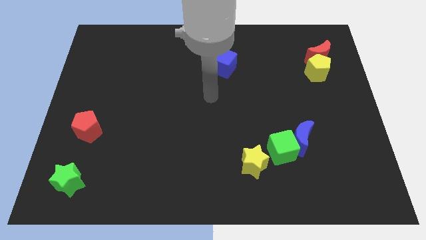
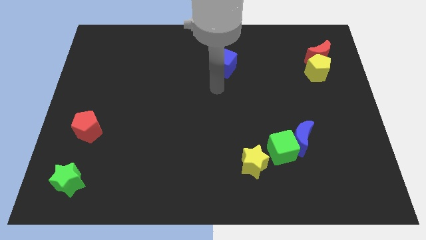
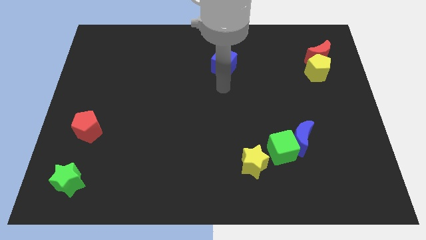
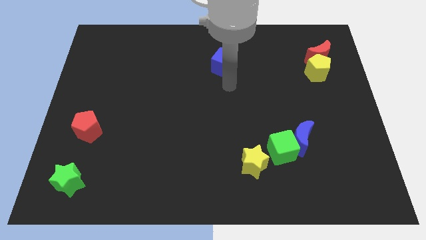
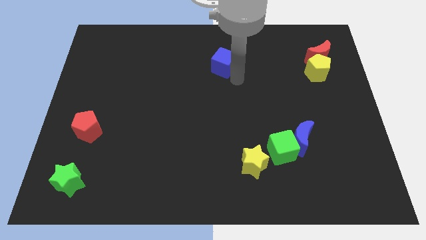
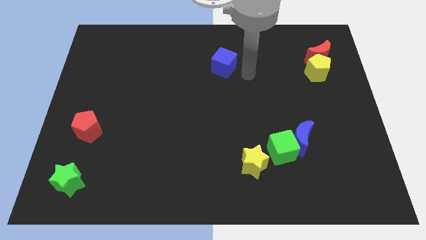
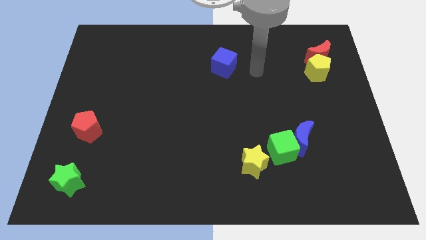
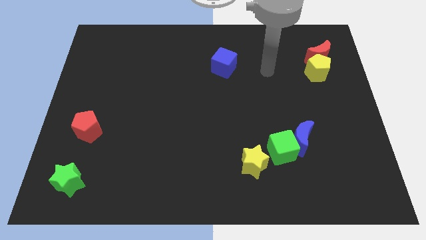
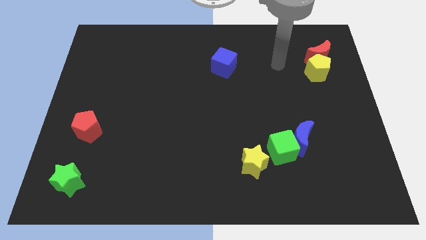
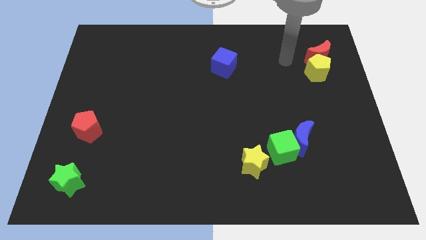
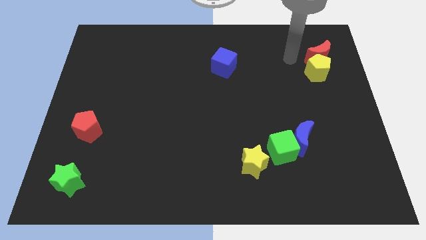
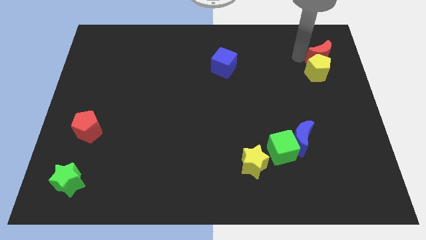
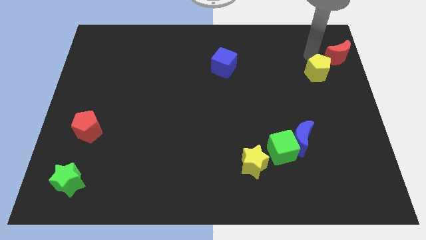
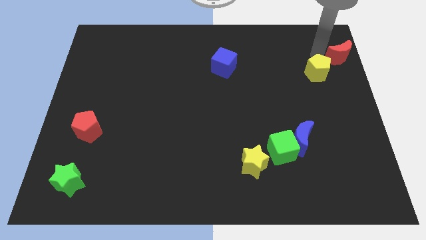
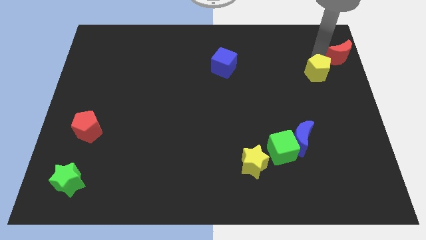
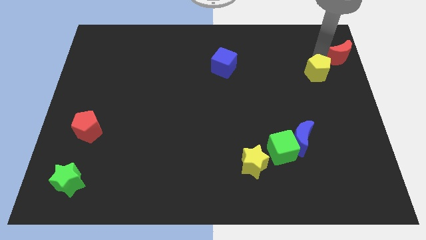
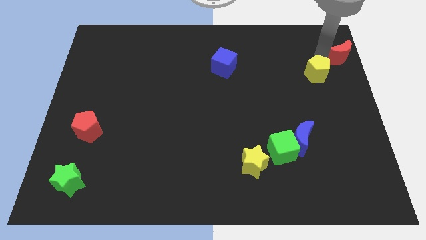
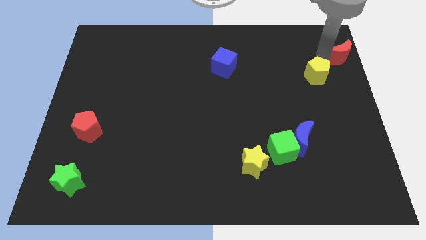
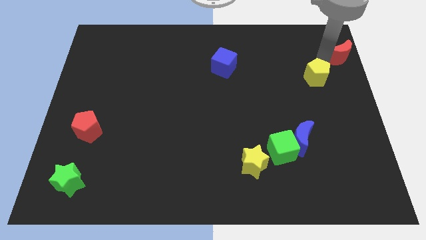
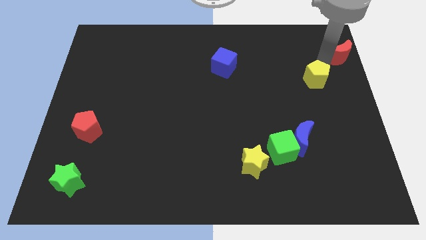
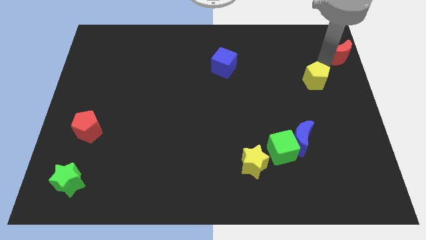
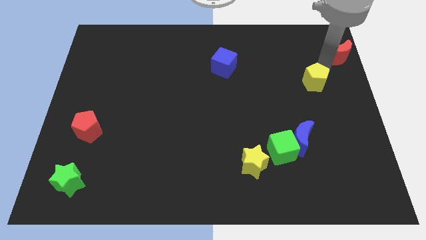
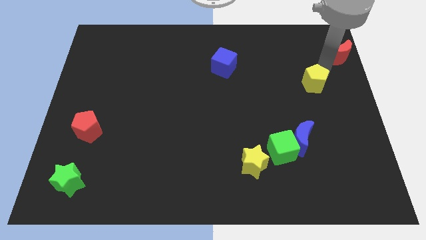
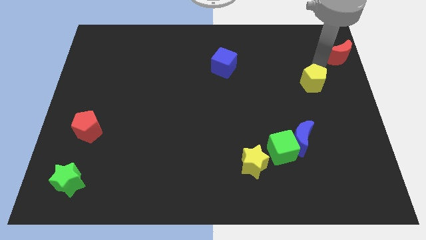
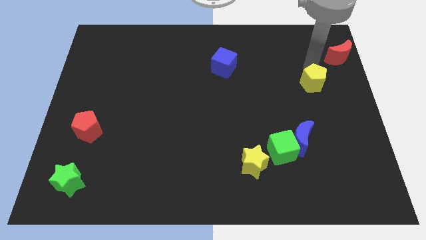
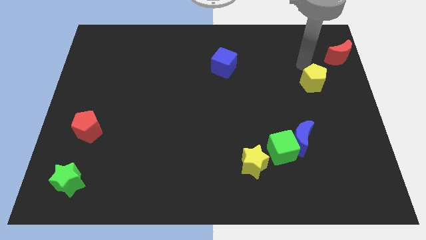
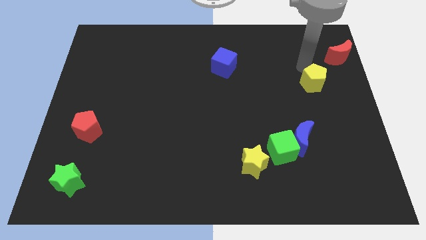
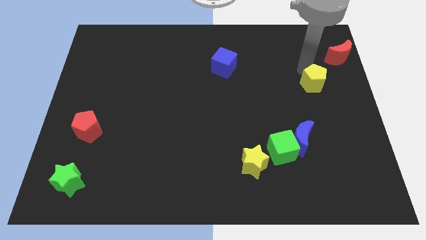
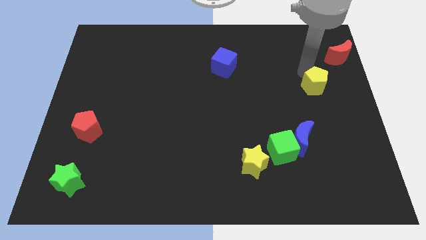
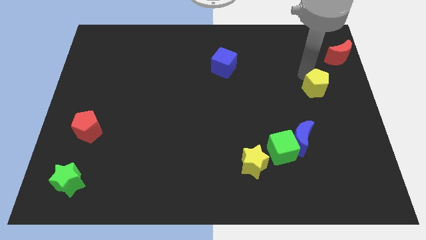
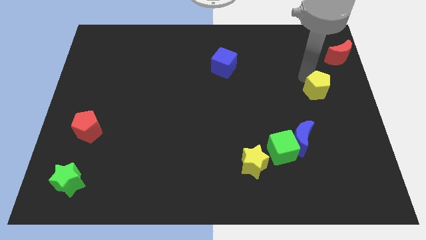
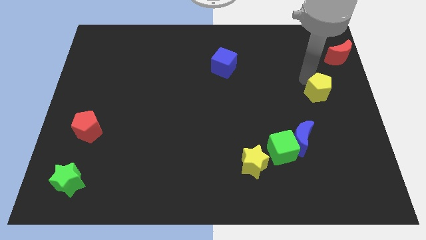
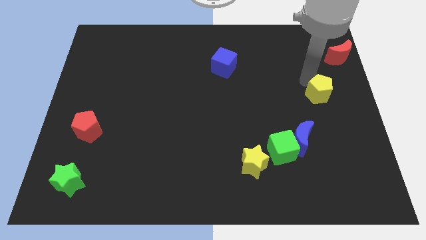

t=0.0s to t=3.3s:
slightly move the yellow pentagon down

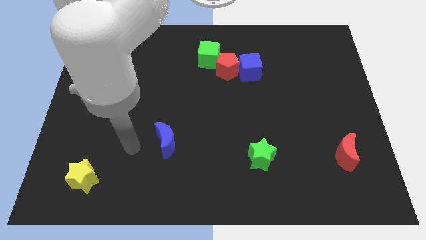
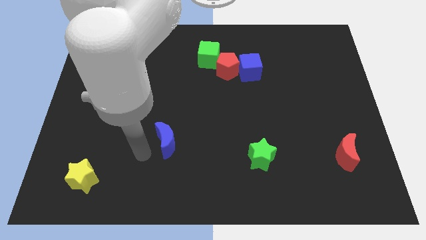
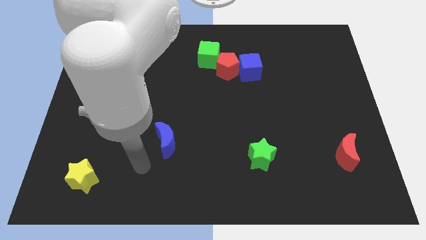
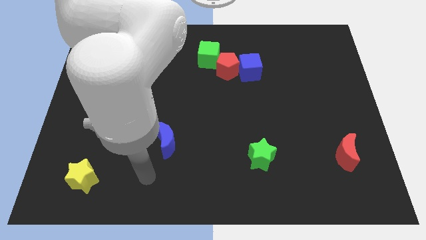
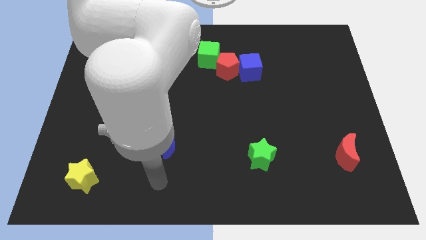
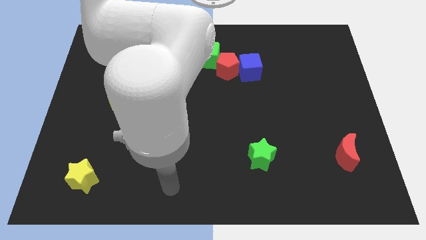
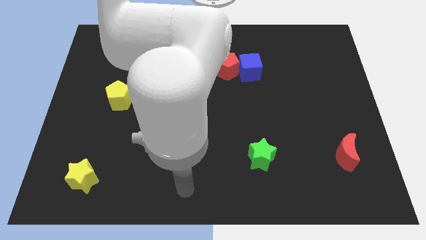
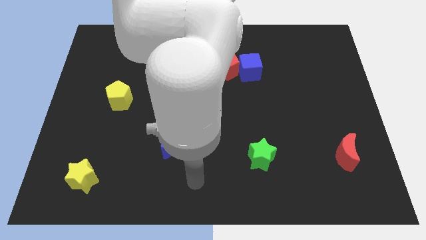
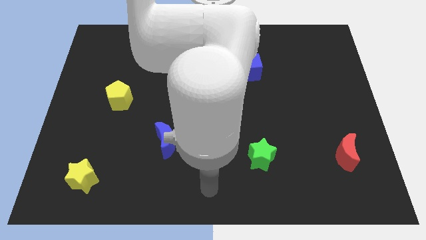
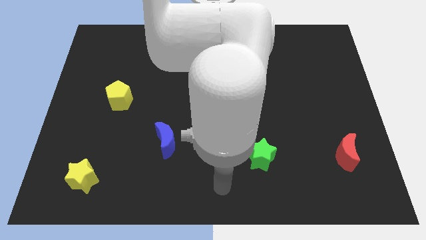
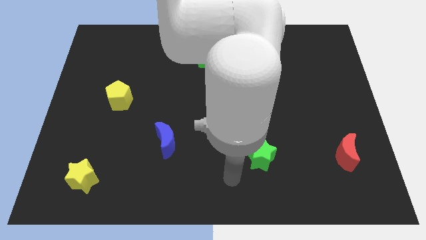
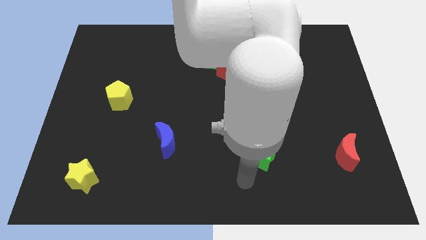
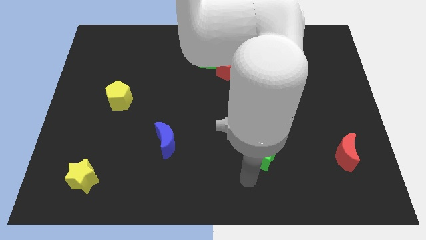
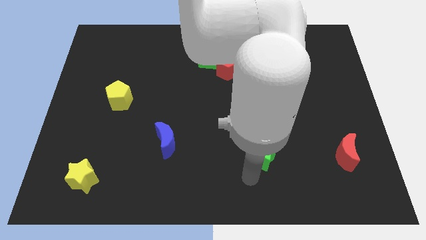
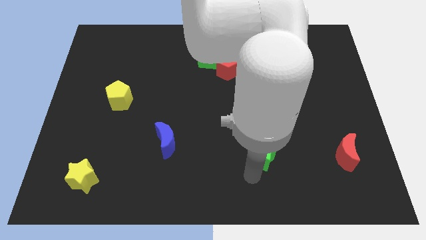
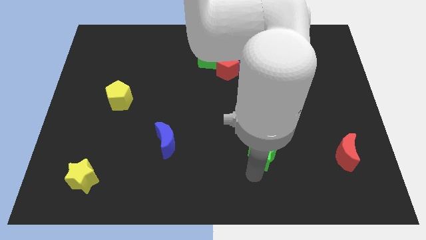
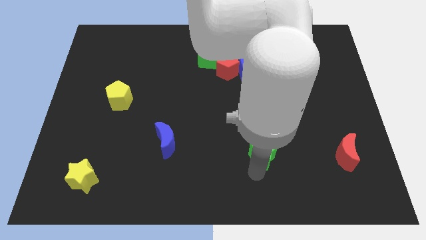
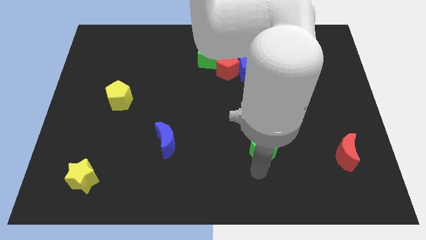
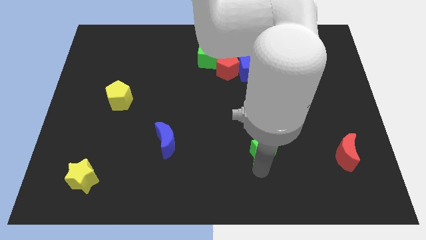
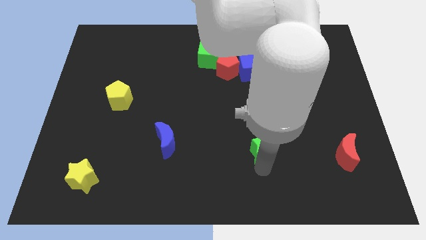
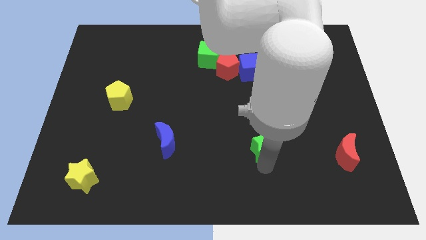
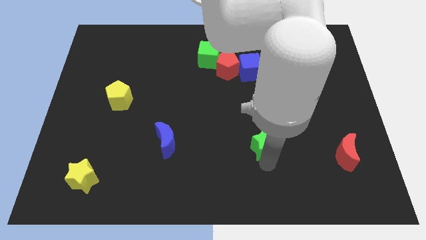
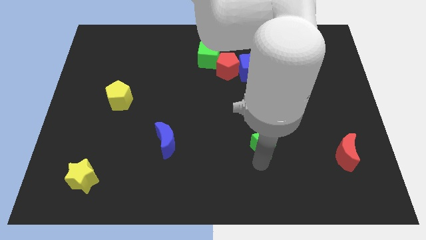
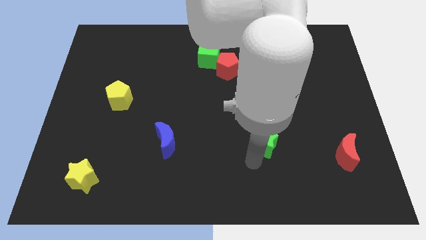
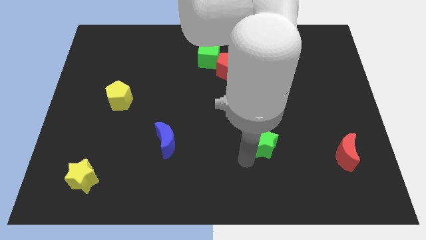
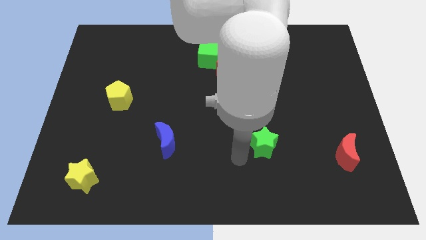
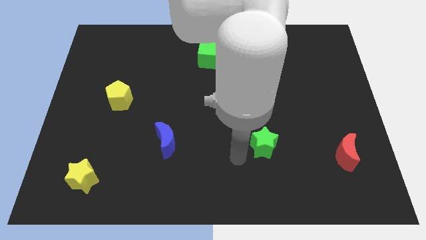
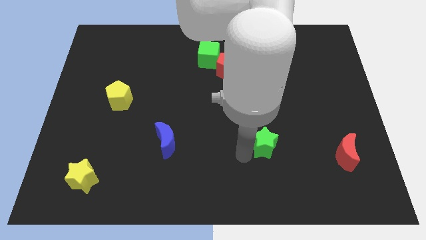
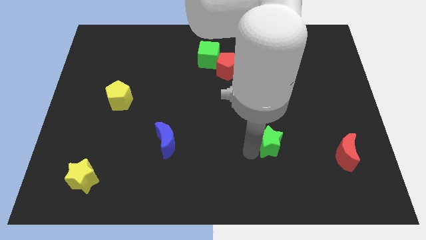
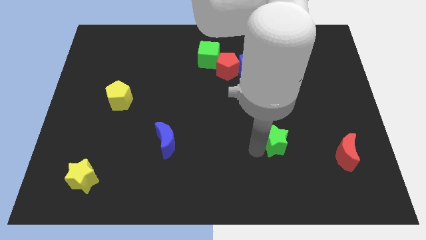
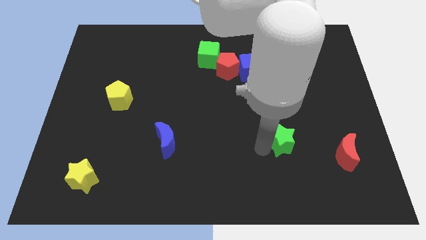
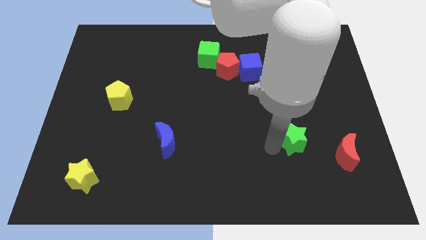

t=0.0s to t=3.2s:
move the green star slightly up and to the right

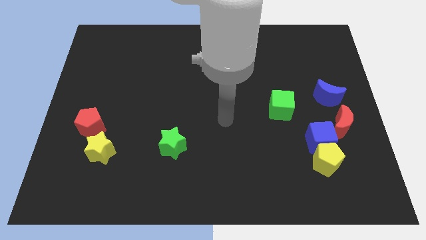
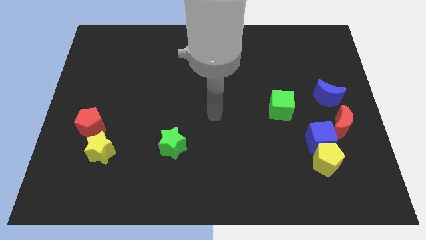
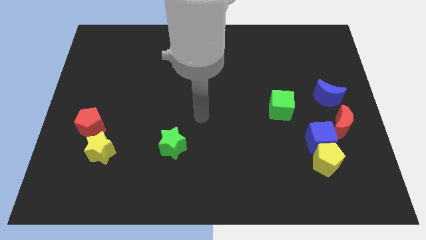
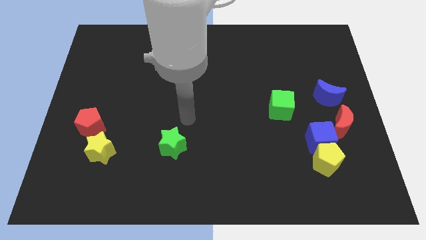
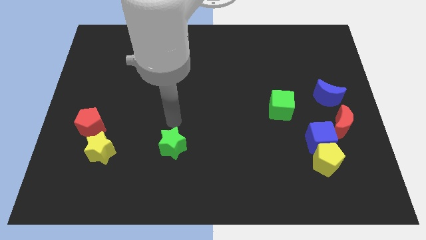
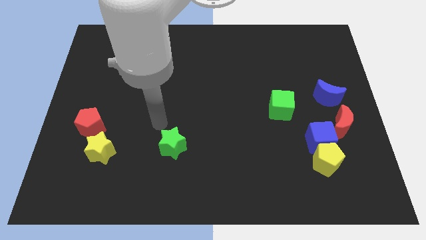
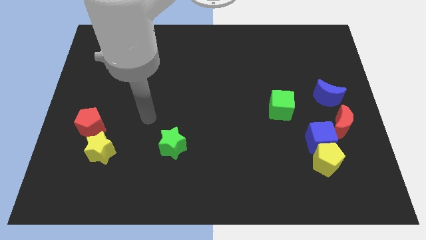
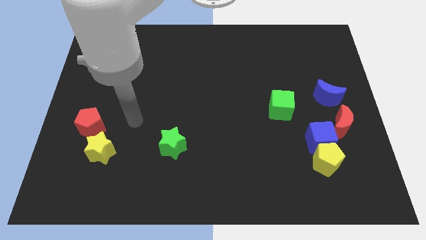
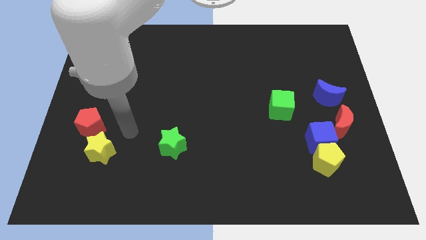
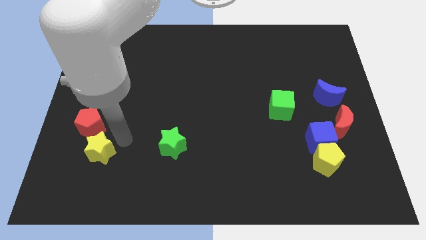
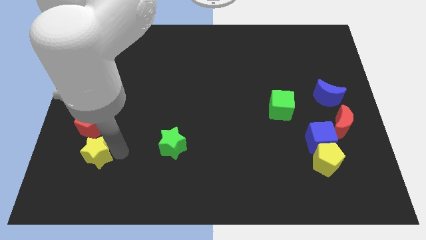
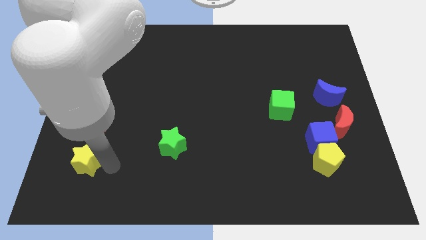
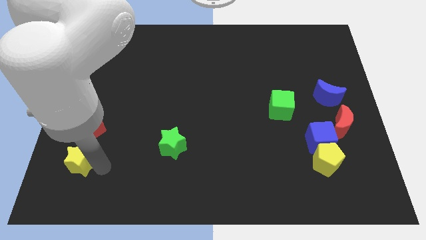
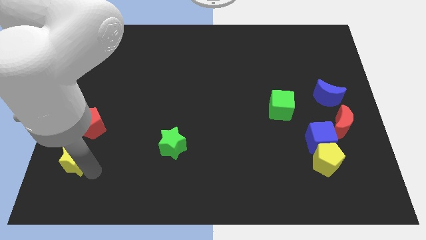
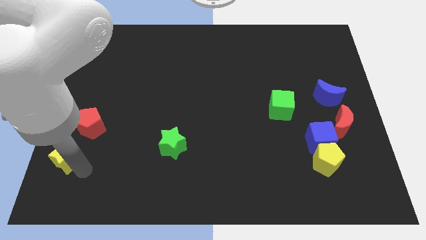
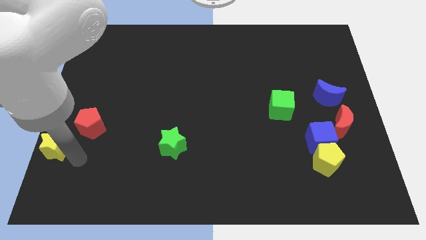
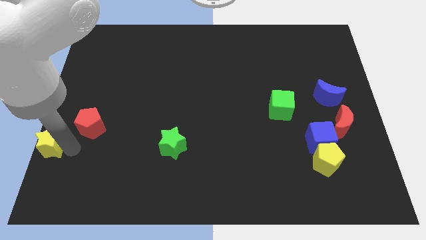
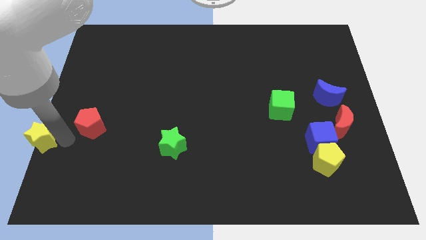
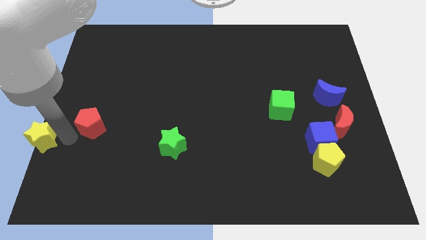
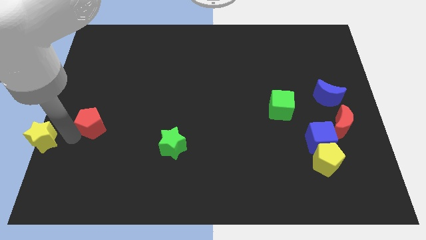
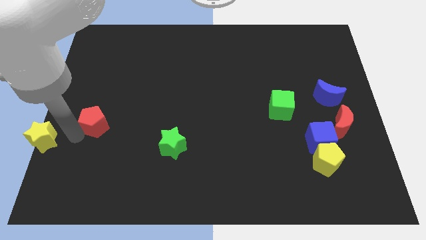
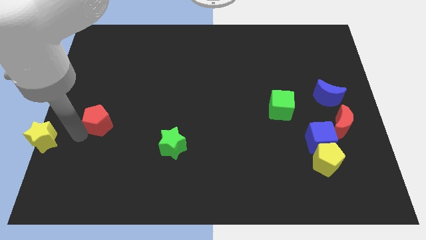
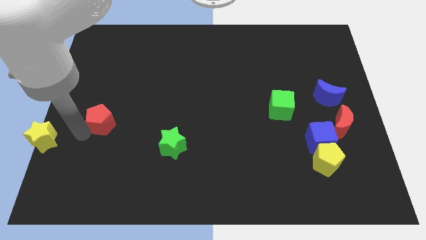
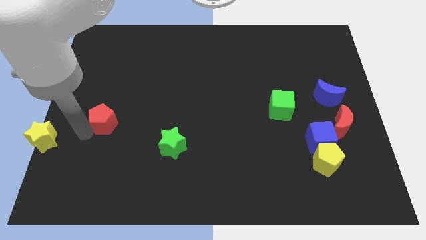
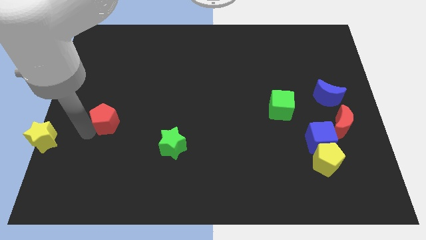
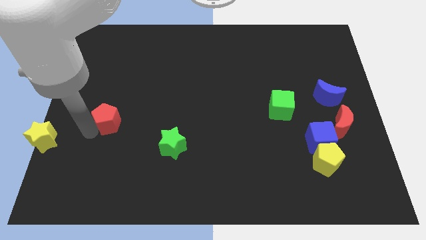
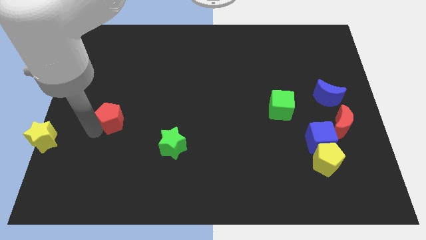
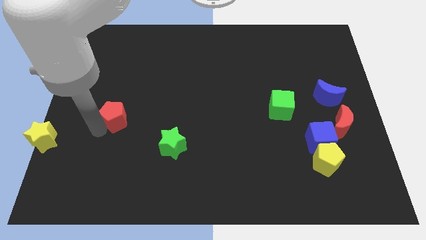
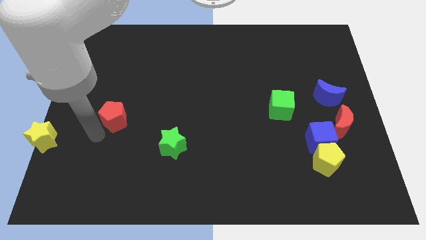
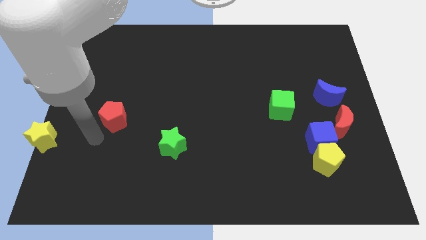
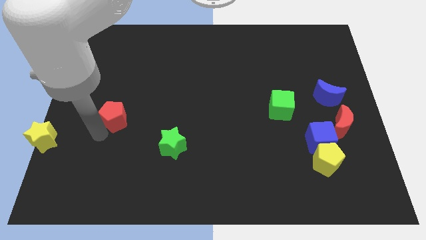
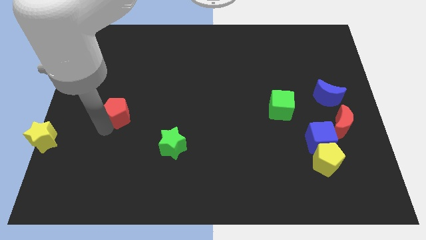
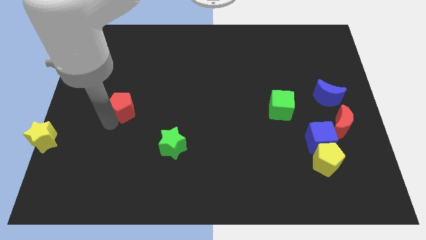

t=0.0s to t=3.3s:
move the red pentagon slightly up and then to the right
